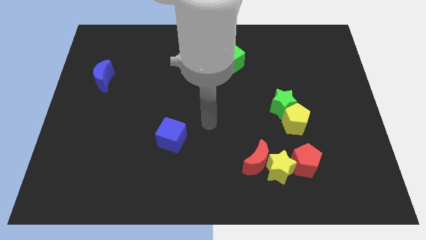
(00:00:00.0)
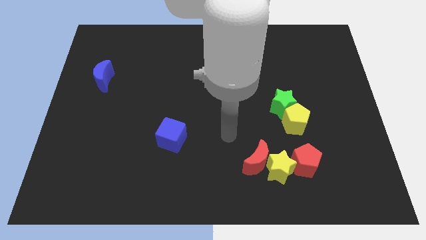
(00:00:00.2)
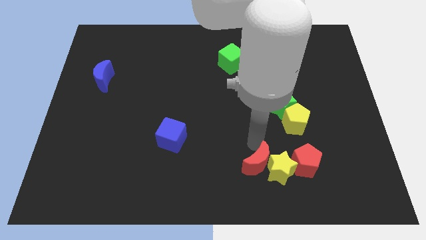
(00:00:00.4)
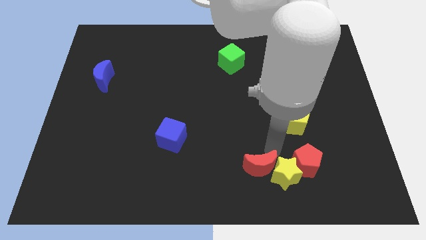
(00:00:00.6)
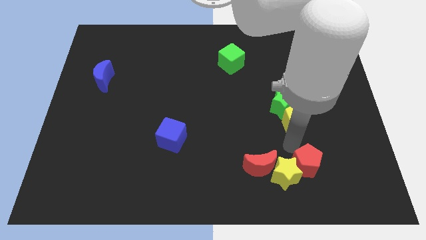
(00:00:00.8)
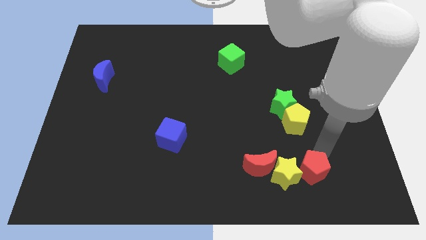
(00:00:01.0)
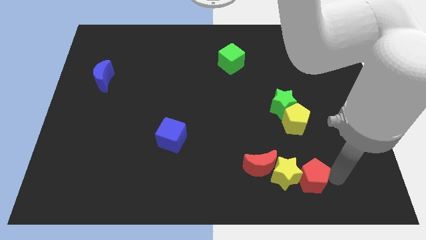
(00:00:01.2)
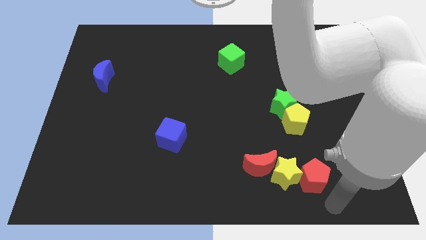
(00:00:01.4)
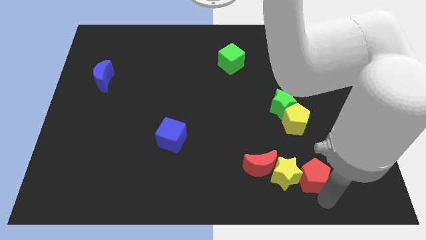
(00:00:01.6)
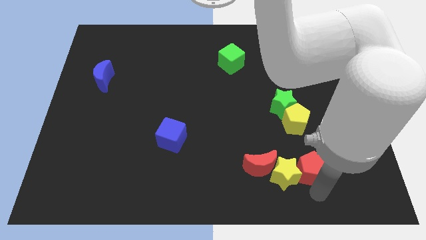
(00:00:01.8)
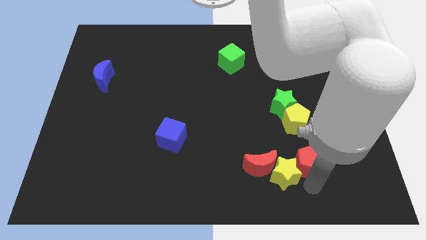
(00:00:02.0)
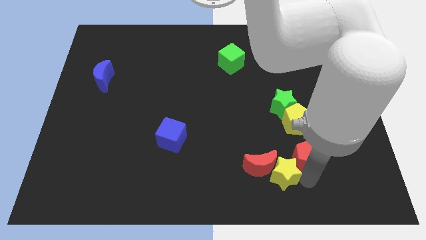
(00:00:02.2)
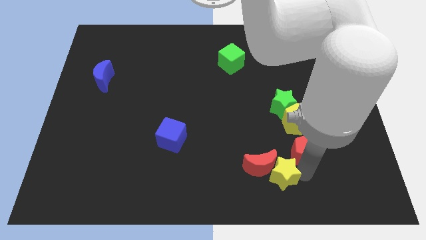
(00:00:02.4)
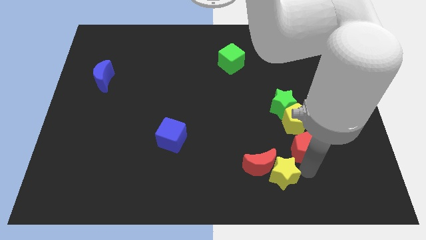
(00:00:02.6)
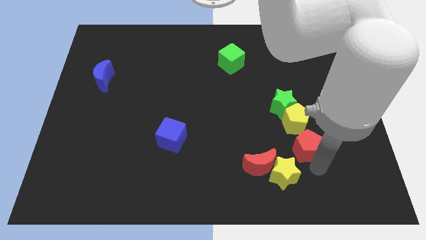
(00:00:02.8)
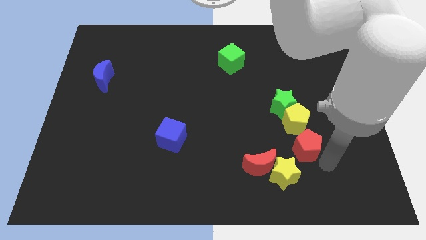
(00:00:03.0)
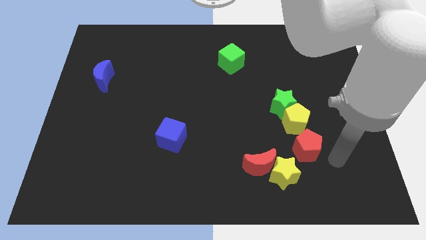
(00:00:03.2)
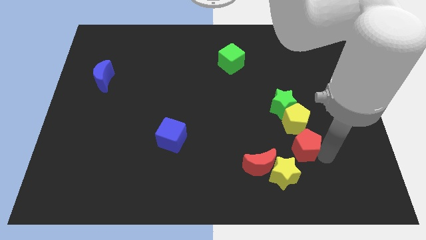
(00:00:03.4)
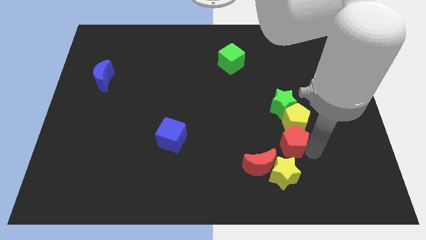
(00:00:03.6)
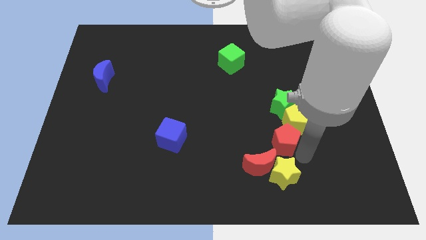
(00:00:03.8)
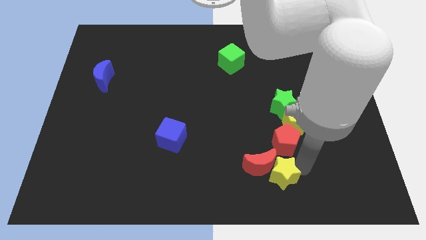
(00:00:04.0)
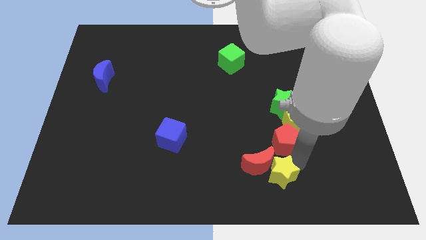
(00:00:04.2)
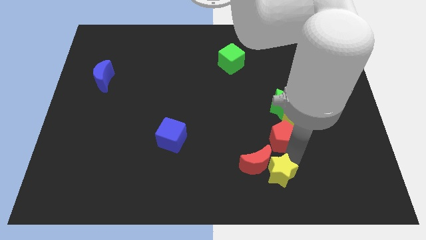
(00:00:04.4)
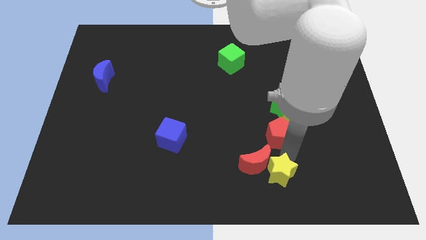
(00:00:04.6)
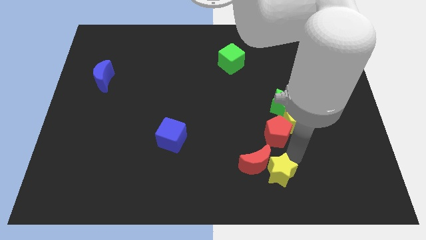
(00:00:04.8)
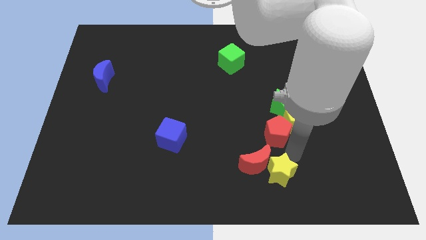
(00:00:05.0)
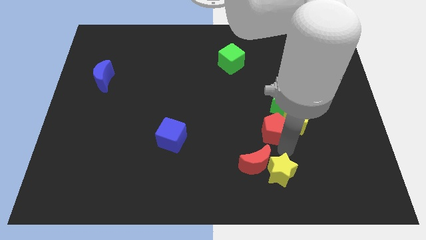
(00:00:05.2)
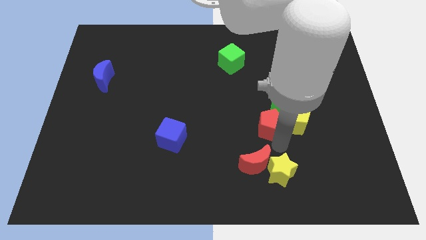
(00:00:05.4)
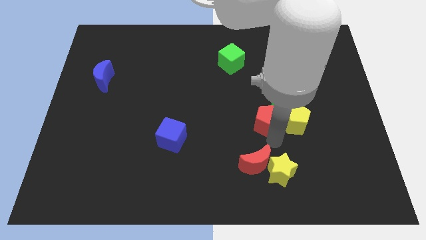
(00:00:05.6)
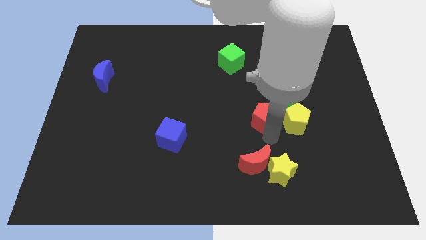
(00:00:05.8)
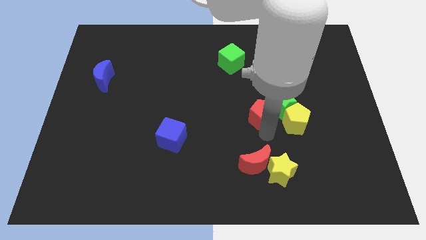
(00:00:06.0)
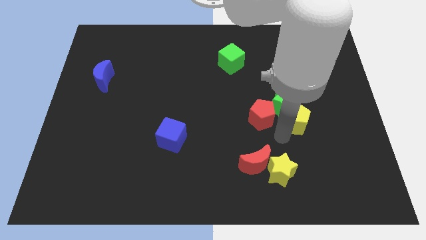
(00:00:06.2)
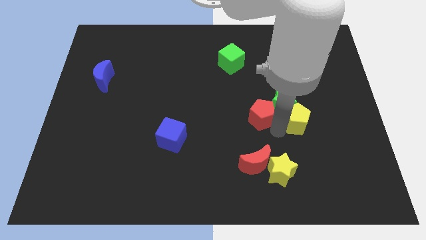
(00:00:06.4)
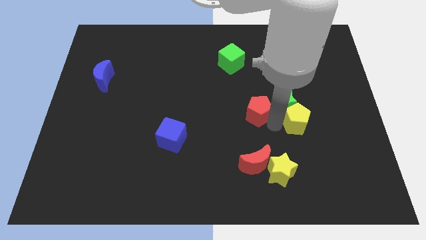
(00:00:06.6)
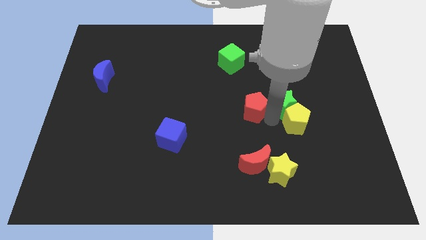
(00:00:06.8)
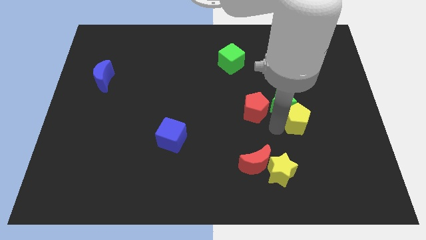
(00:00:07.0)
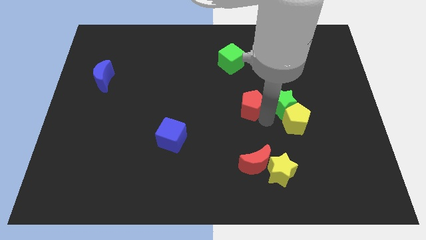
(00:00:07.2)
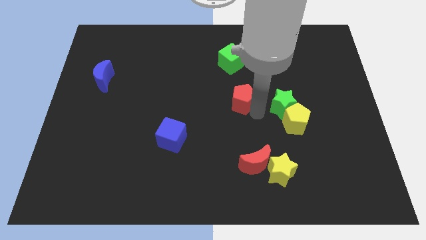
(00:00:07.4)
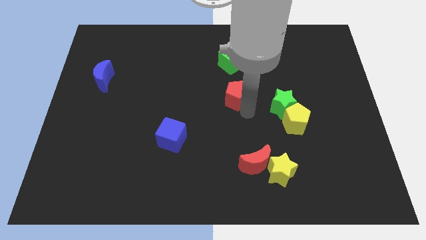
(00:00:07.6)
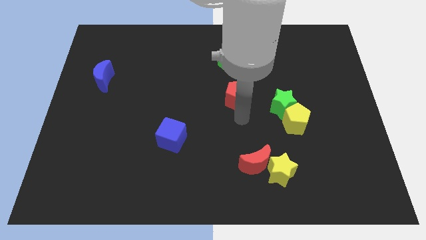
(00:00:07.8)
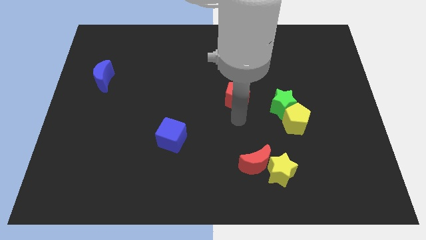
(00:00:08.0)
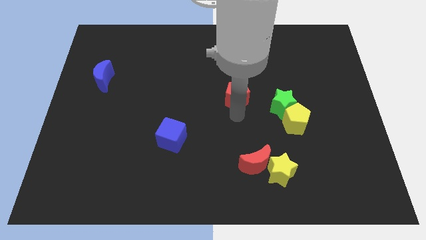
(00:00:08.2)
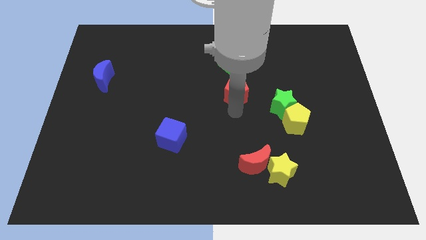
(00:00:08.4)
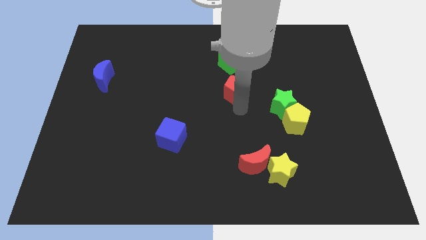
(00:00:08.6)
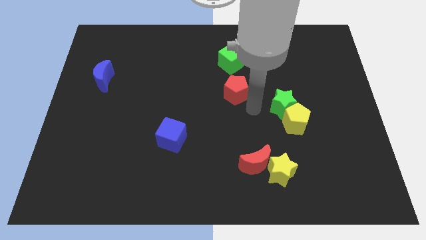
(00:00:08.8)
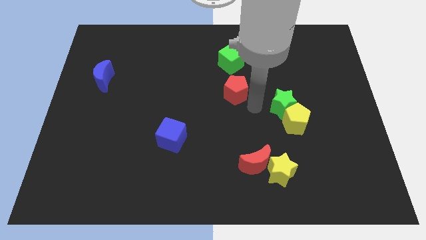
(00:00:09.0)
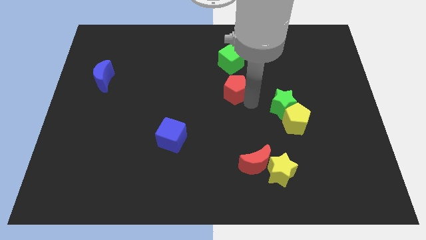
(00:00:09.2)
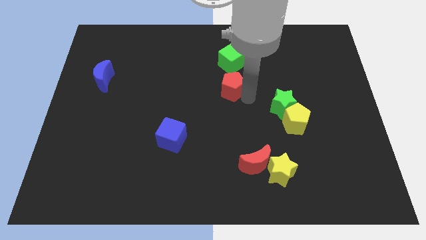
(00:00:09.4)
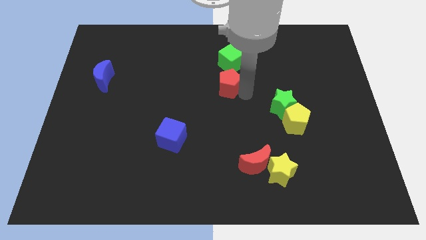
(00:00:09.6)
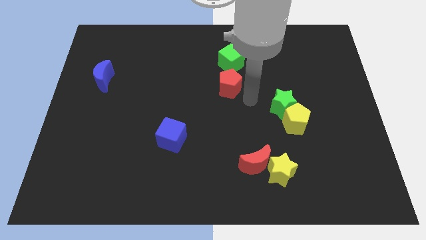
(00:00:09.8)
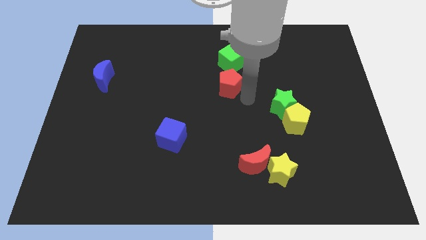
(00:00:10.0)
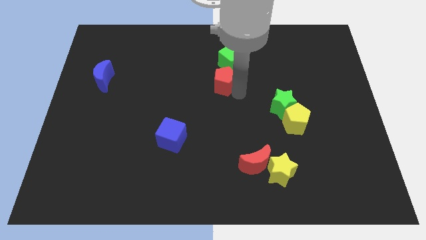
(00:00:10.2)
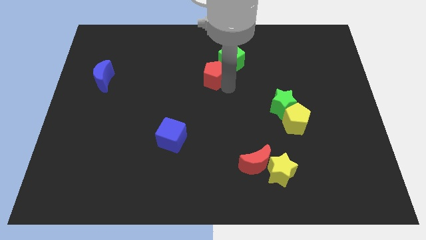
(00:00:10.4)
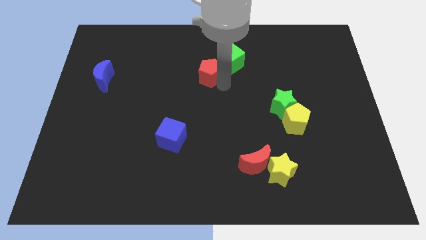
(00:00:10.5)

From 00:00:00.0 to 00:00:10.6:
push the red pentagon just left of the green cube

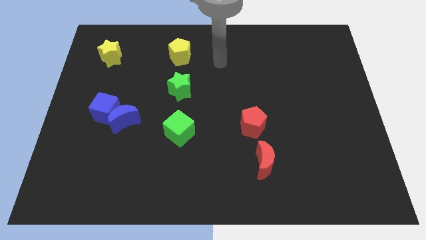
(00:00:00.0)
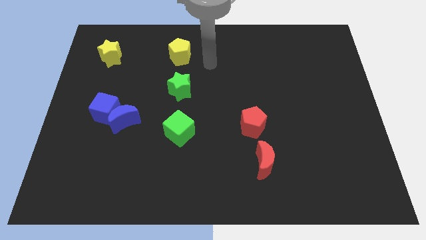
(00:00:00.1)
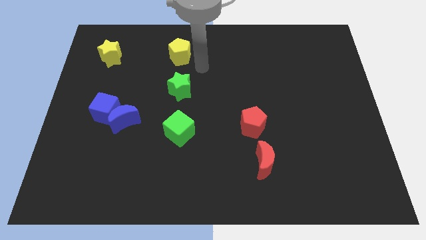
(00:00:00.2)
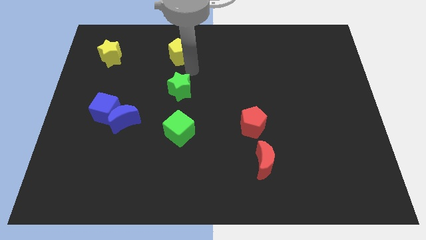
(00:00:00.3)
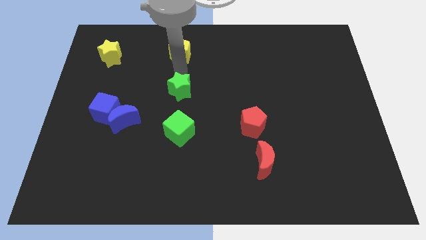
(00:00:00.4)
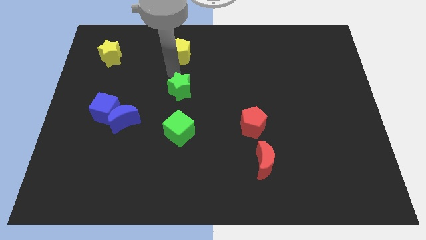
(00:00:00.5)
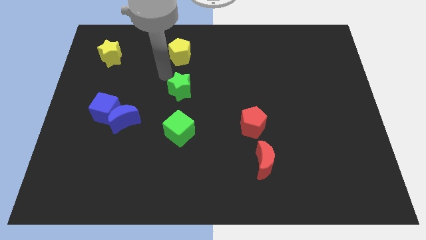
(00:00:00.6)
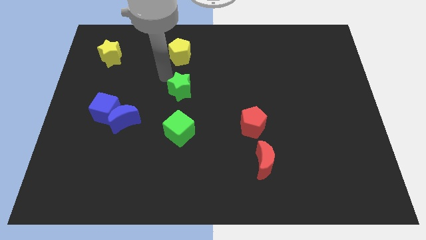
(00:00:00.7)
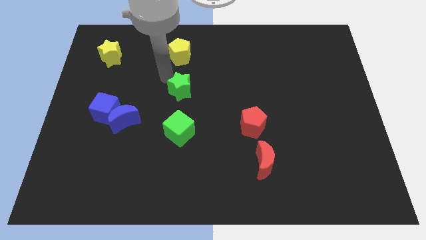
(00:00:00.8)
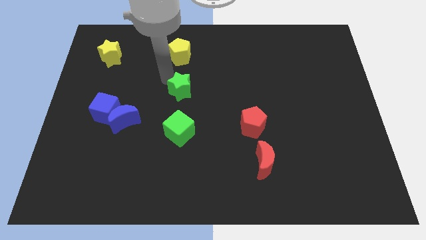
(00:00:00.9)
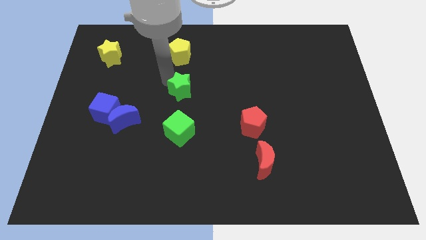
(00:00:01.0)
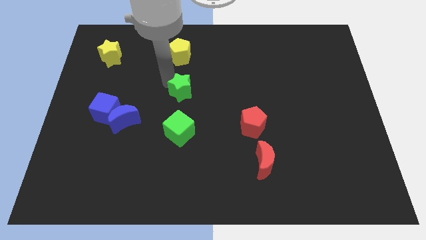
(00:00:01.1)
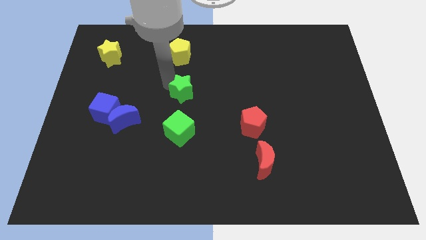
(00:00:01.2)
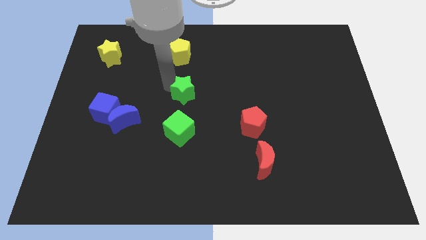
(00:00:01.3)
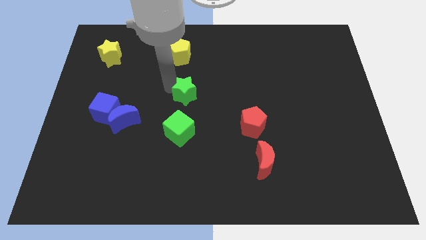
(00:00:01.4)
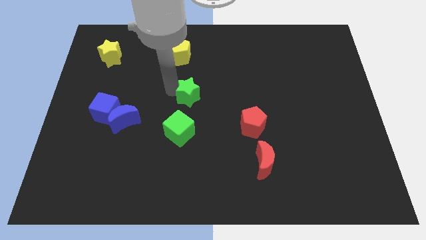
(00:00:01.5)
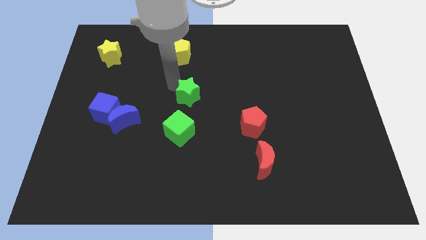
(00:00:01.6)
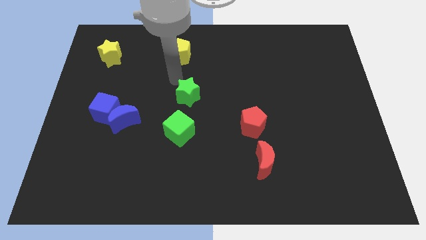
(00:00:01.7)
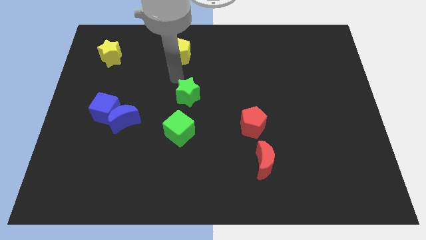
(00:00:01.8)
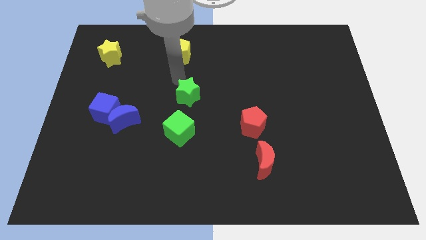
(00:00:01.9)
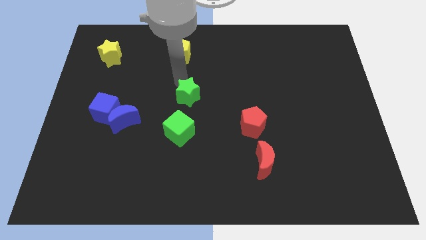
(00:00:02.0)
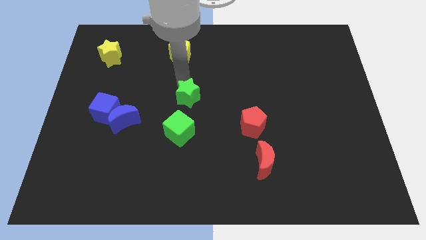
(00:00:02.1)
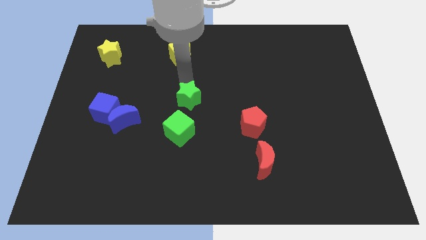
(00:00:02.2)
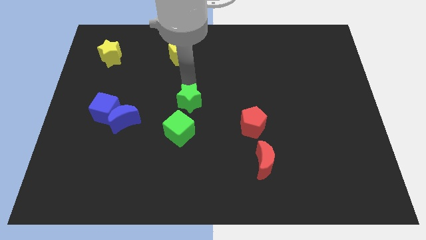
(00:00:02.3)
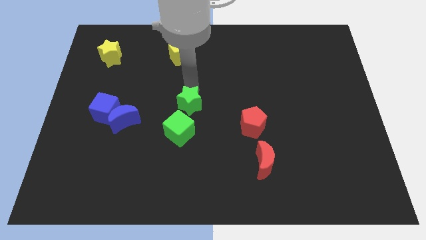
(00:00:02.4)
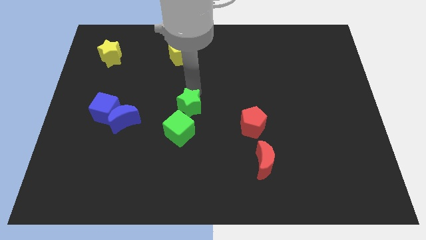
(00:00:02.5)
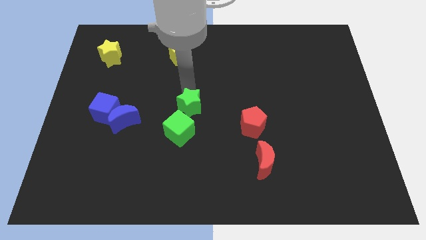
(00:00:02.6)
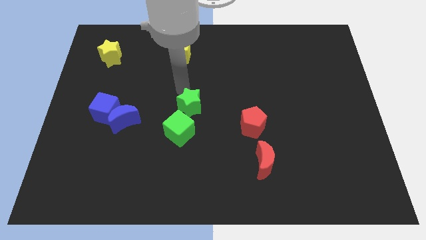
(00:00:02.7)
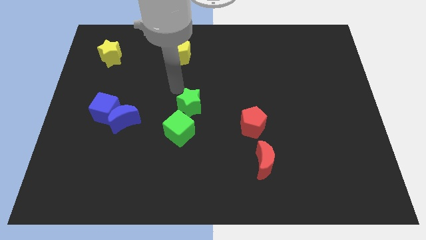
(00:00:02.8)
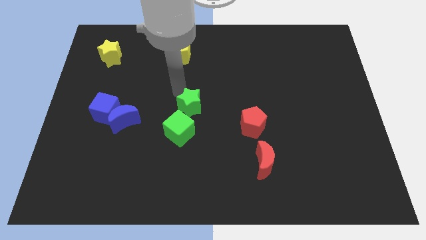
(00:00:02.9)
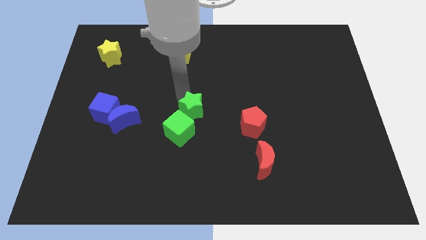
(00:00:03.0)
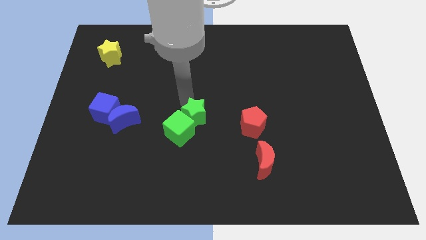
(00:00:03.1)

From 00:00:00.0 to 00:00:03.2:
slide the green star to the left of the red pentagon
